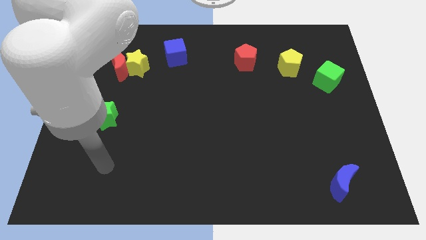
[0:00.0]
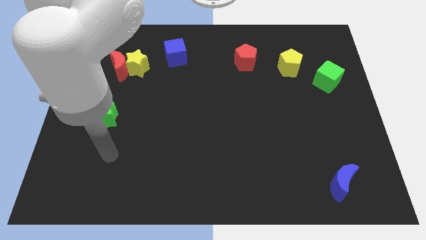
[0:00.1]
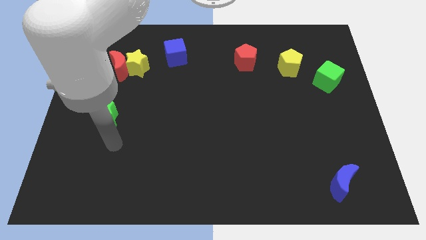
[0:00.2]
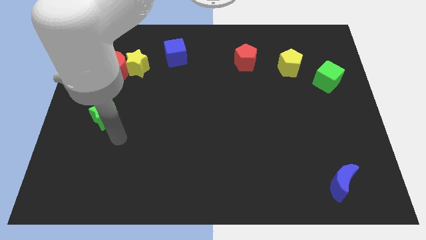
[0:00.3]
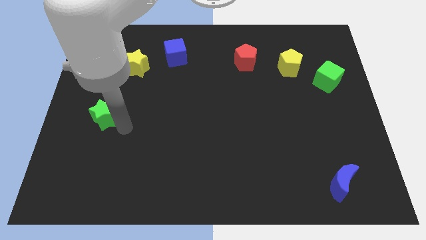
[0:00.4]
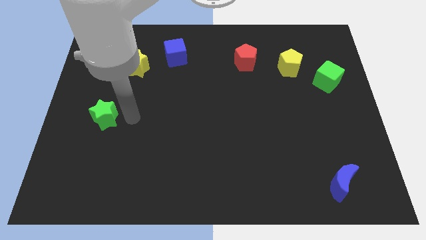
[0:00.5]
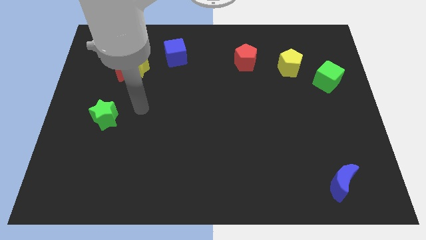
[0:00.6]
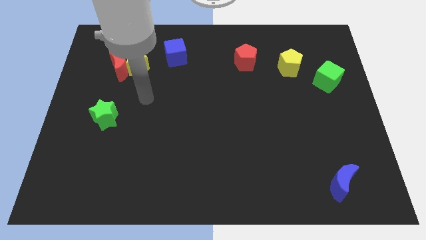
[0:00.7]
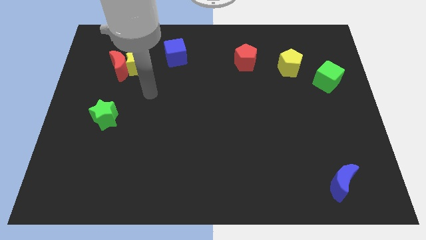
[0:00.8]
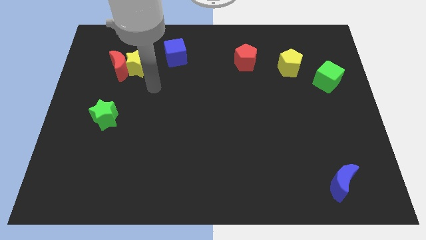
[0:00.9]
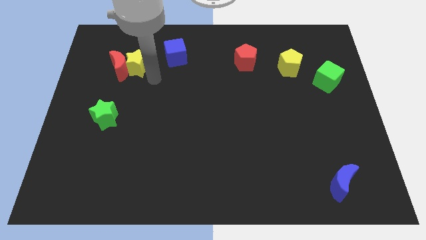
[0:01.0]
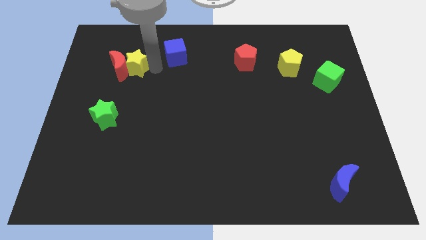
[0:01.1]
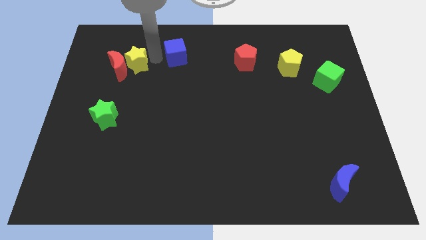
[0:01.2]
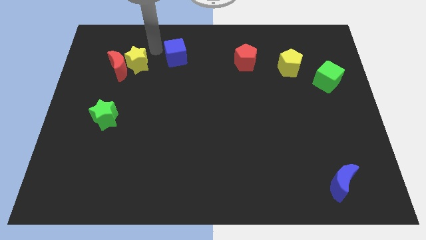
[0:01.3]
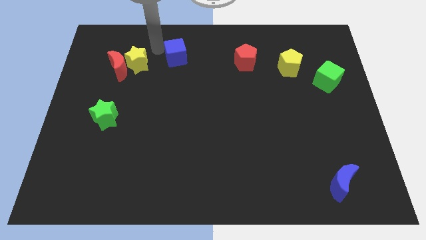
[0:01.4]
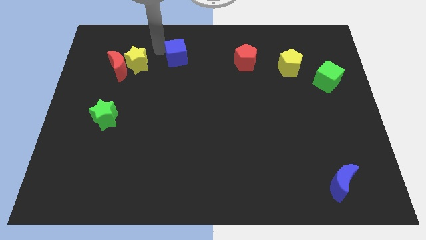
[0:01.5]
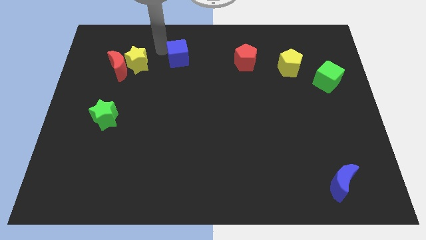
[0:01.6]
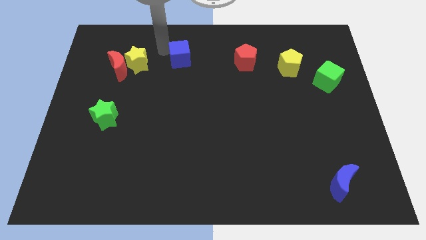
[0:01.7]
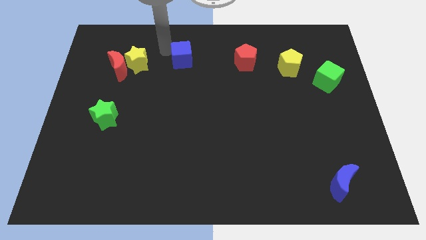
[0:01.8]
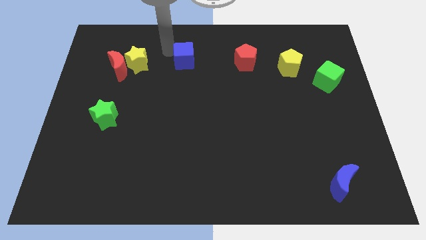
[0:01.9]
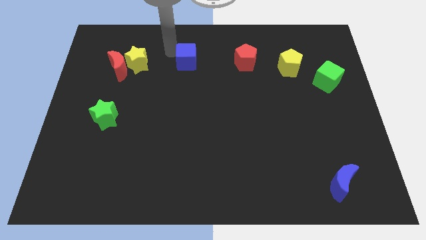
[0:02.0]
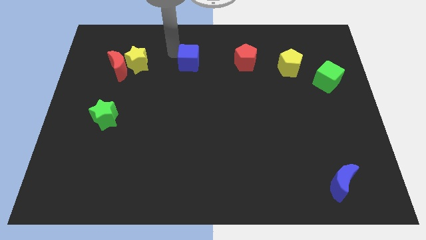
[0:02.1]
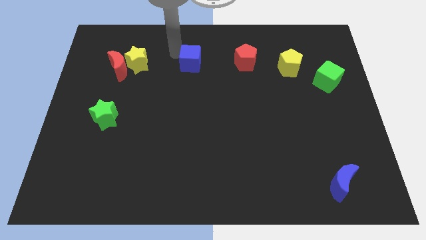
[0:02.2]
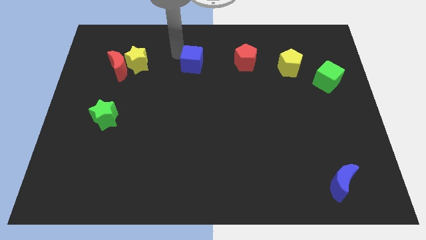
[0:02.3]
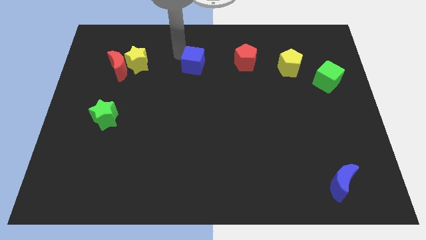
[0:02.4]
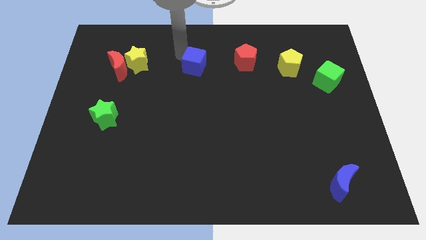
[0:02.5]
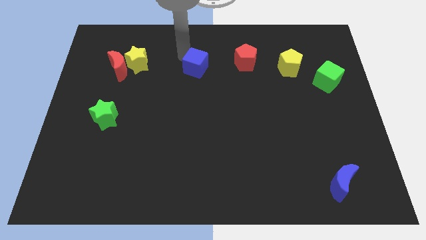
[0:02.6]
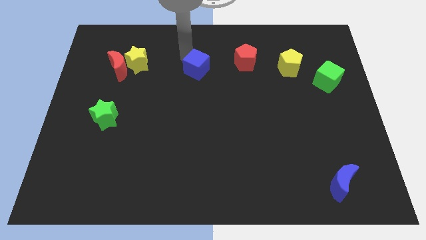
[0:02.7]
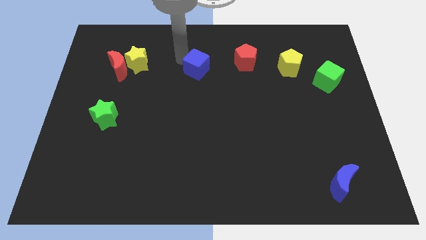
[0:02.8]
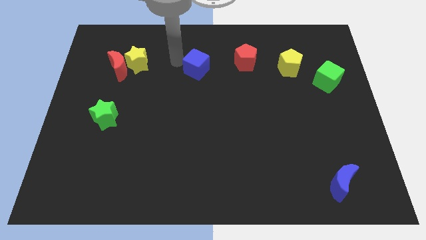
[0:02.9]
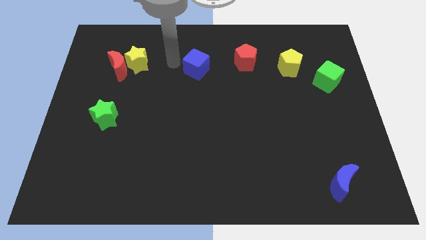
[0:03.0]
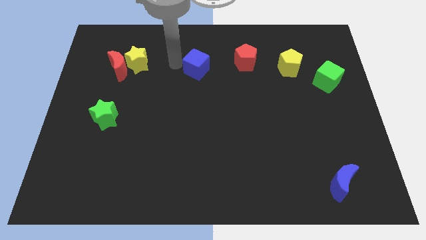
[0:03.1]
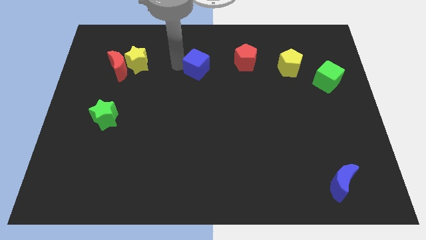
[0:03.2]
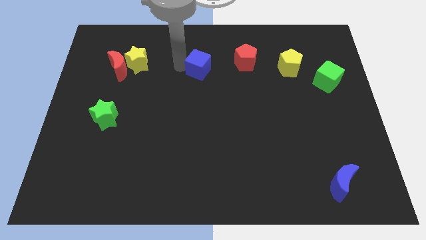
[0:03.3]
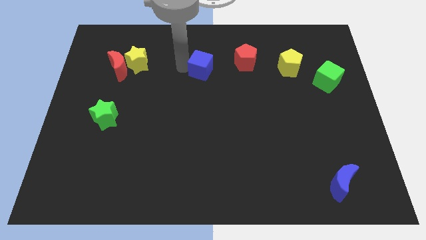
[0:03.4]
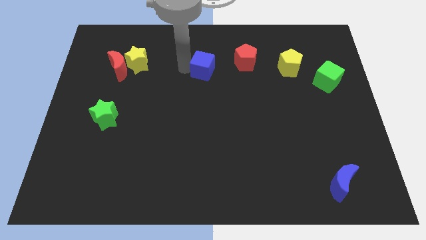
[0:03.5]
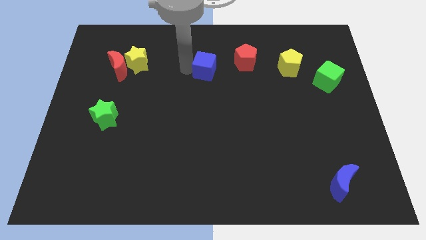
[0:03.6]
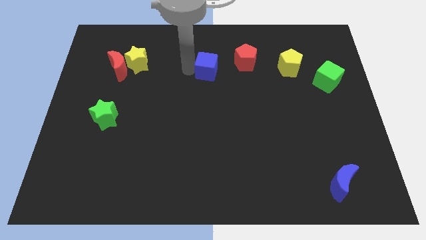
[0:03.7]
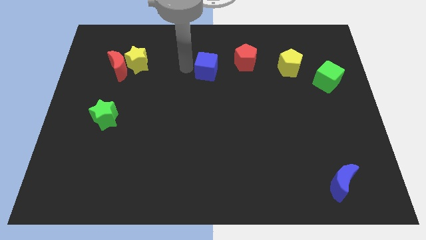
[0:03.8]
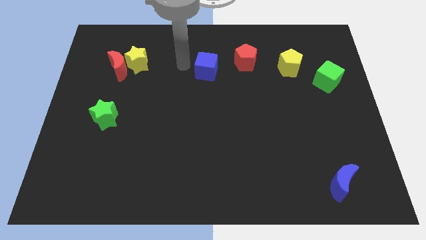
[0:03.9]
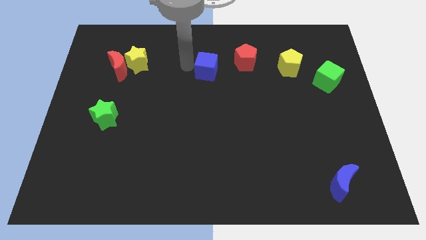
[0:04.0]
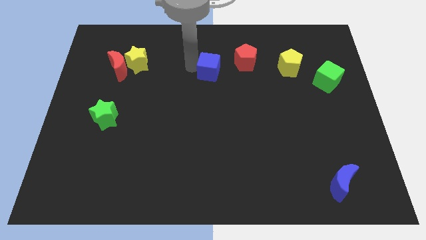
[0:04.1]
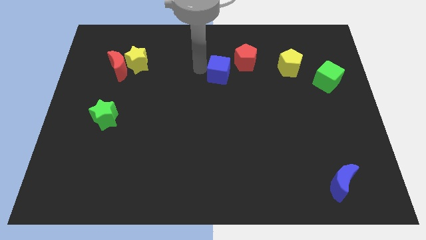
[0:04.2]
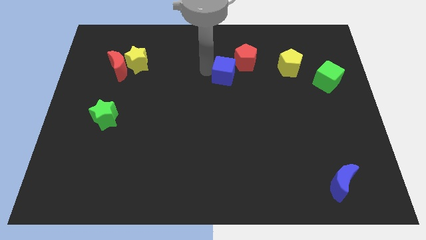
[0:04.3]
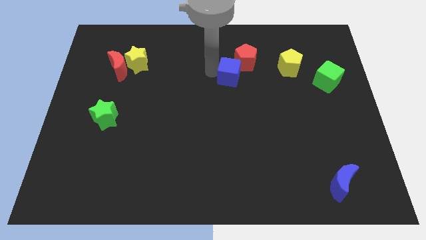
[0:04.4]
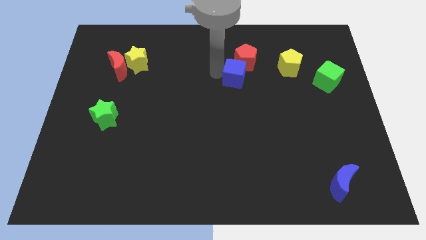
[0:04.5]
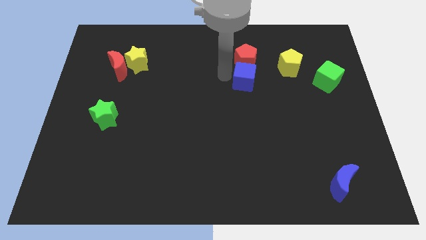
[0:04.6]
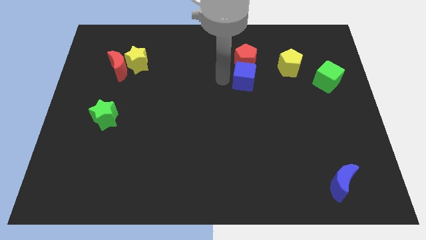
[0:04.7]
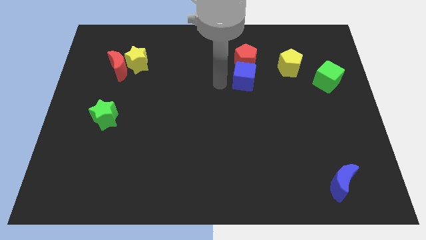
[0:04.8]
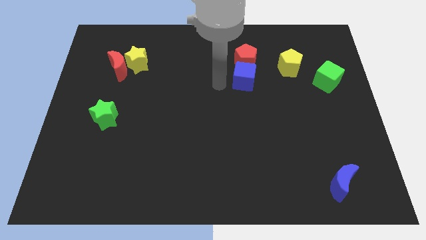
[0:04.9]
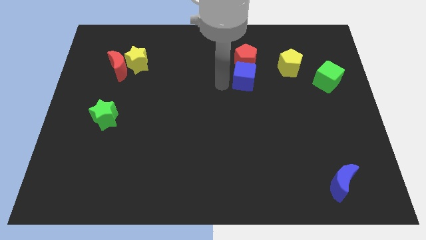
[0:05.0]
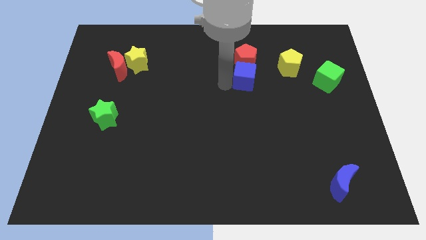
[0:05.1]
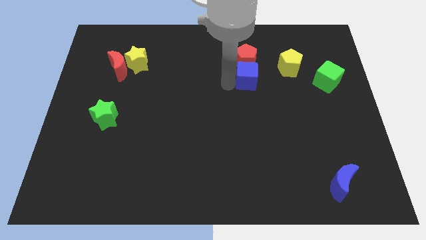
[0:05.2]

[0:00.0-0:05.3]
slide the blue cube diagonally down and to the right of the red pentagon

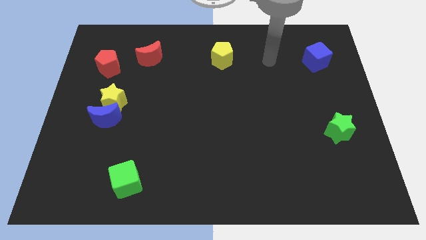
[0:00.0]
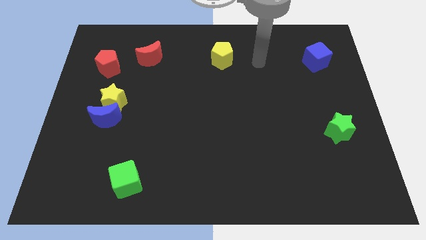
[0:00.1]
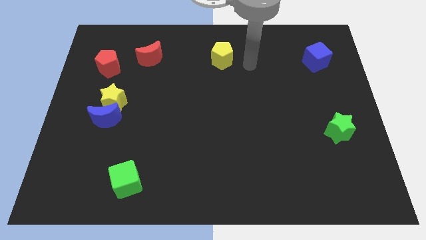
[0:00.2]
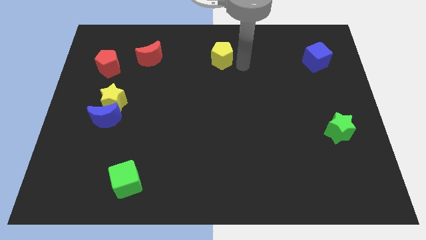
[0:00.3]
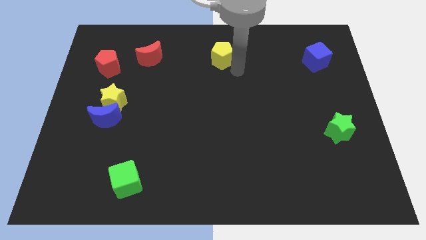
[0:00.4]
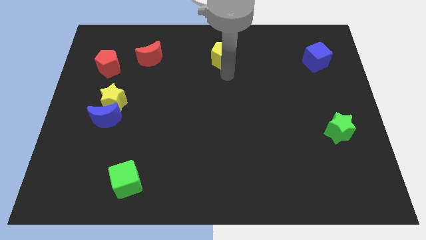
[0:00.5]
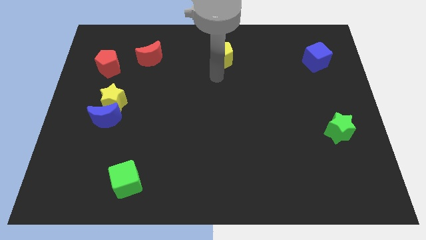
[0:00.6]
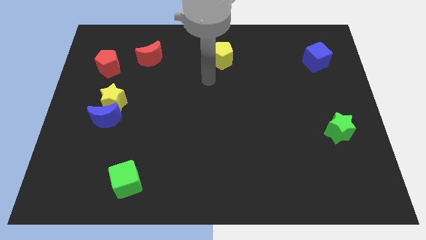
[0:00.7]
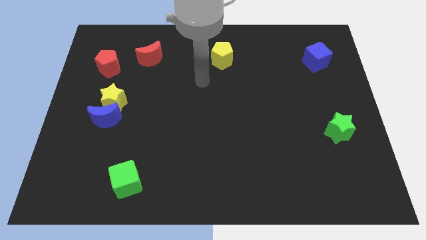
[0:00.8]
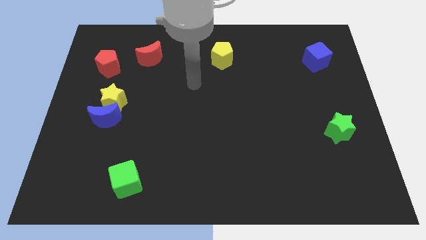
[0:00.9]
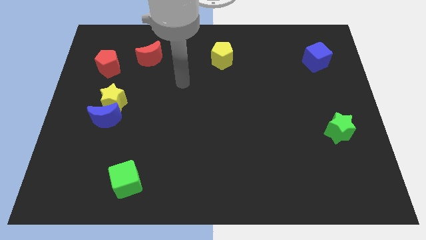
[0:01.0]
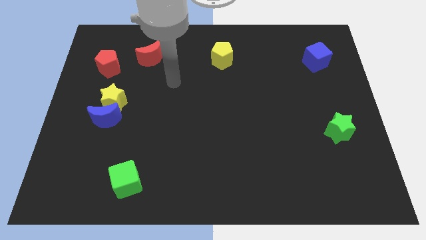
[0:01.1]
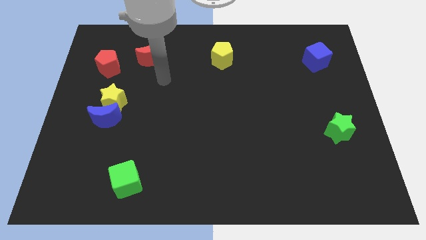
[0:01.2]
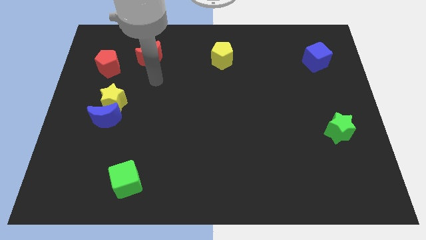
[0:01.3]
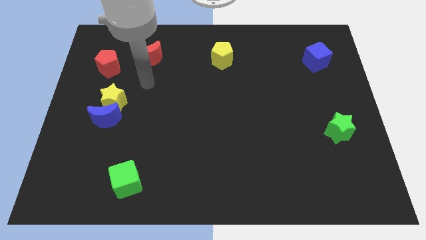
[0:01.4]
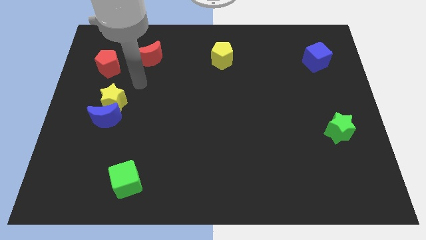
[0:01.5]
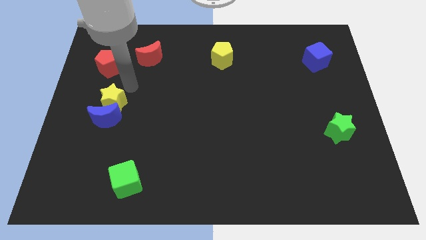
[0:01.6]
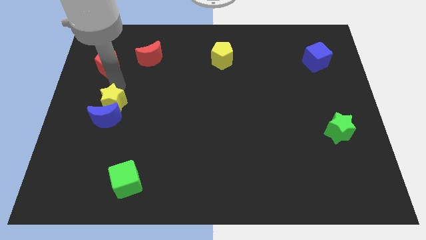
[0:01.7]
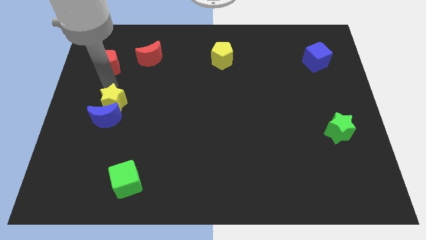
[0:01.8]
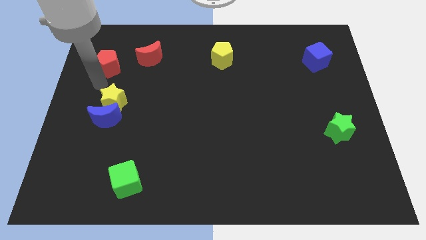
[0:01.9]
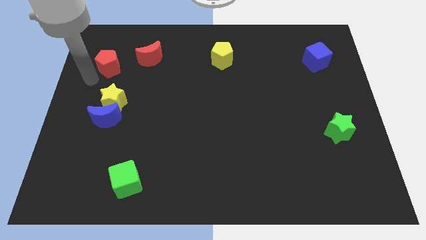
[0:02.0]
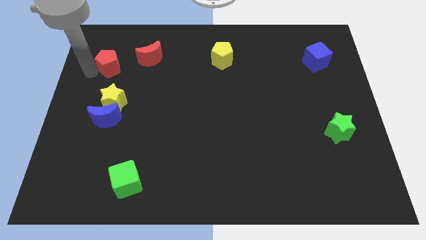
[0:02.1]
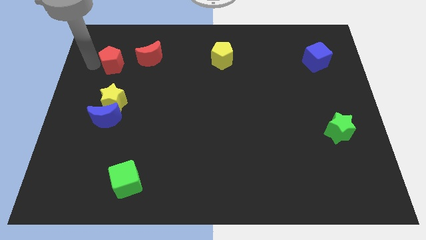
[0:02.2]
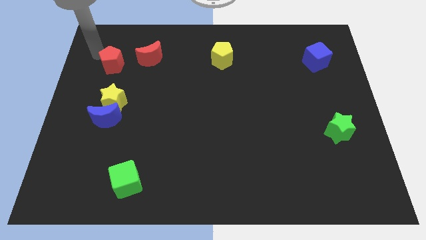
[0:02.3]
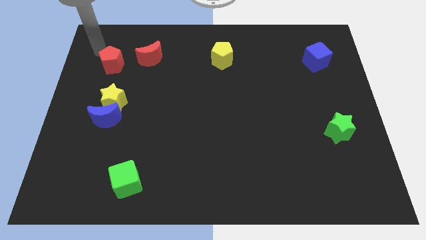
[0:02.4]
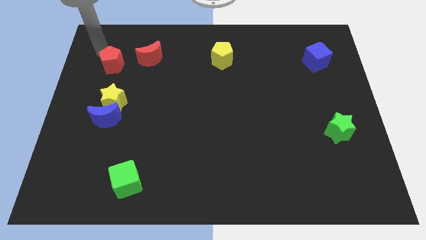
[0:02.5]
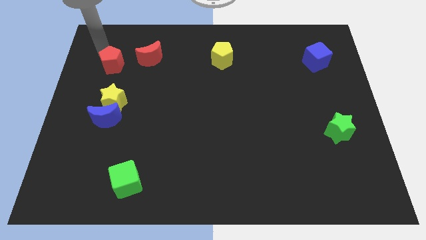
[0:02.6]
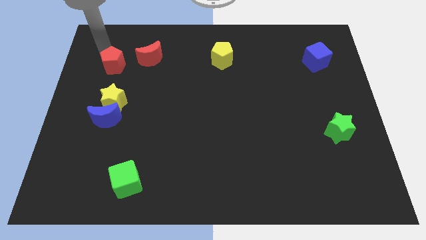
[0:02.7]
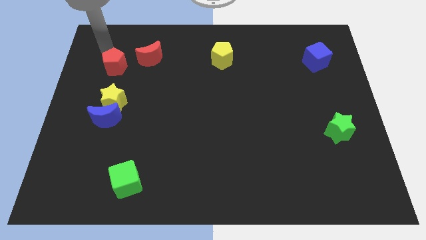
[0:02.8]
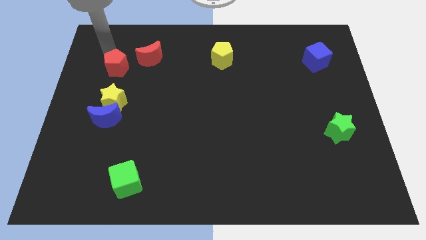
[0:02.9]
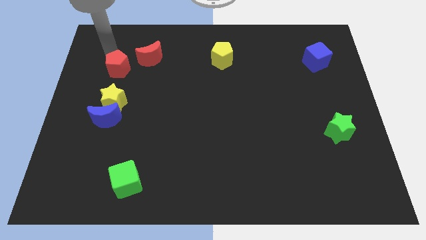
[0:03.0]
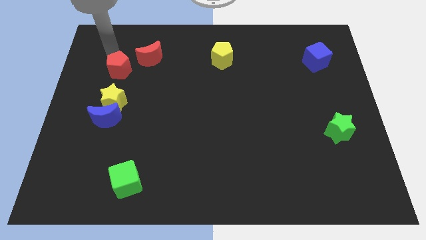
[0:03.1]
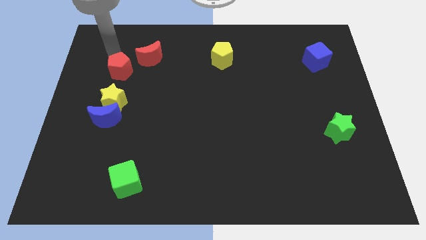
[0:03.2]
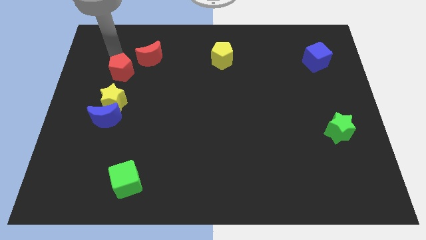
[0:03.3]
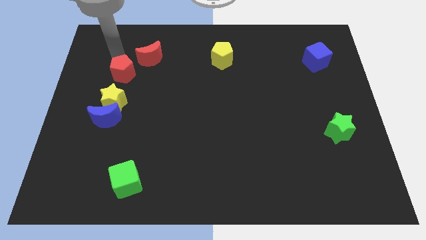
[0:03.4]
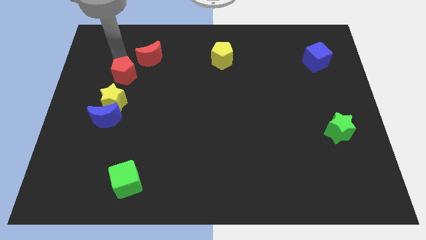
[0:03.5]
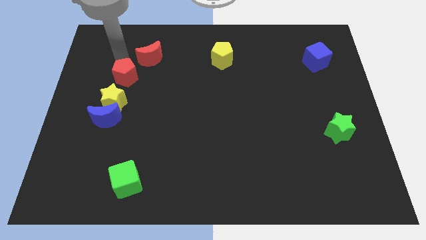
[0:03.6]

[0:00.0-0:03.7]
move the red pentagon diagonally up and to the right of the yellow star
